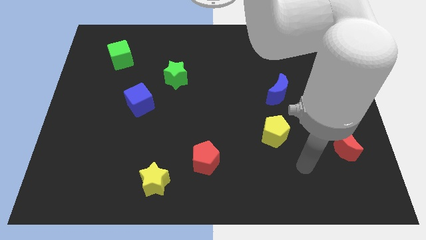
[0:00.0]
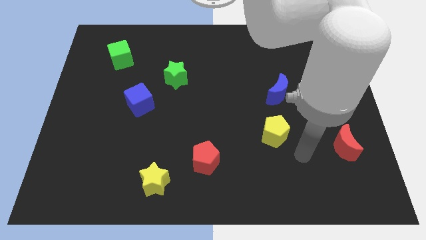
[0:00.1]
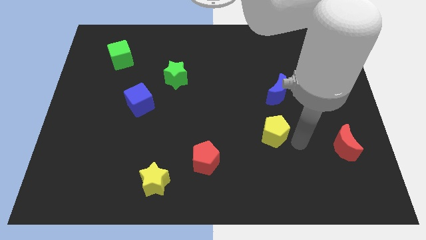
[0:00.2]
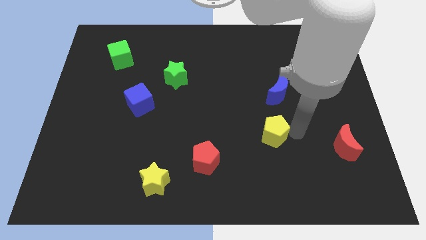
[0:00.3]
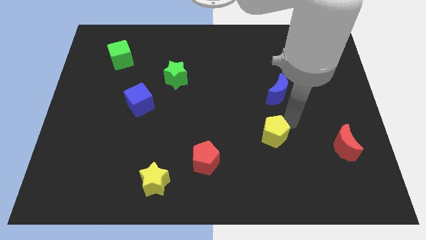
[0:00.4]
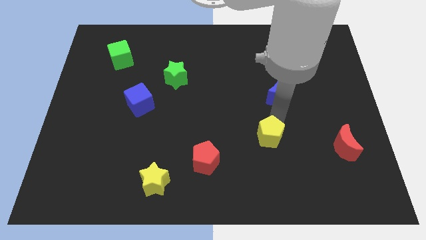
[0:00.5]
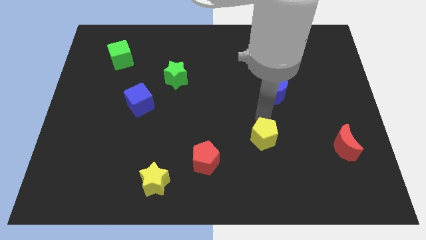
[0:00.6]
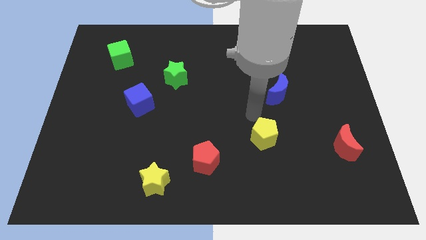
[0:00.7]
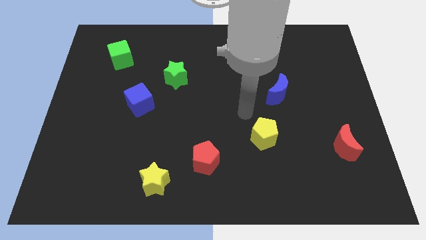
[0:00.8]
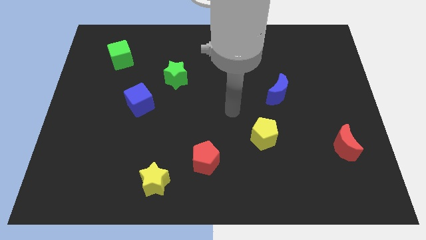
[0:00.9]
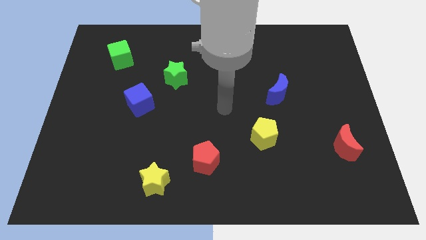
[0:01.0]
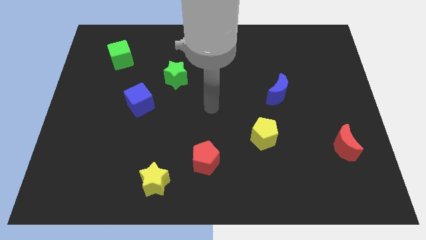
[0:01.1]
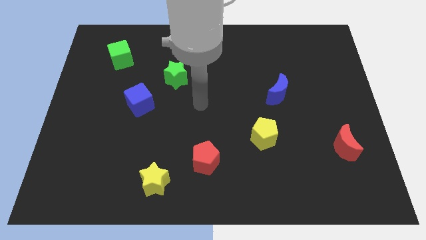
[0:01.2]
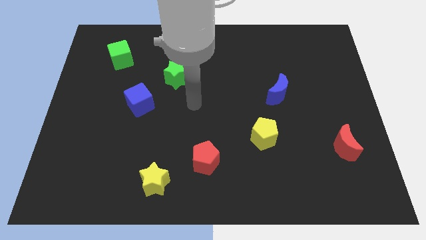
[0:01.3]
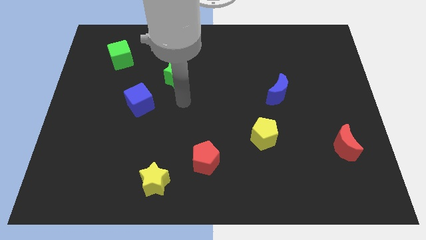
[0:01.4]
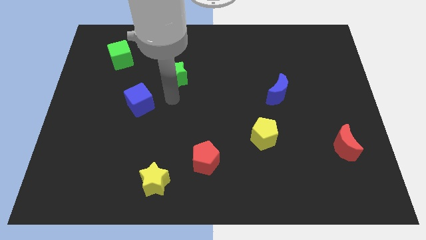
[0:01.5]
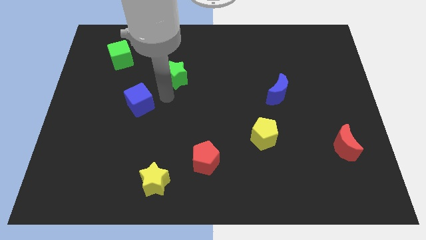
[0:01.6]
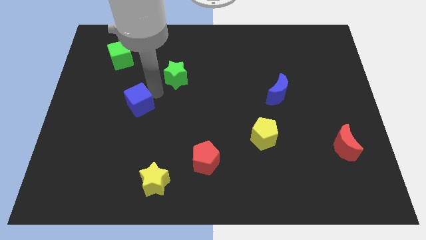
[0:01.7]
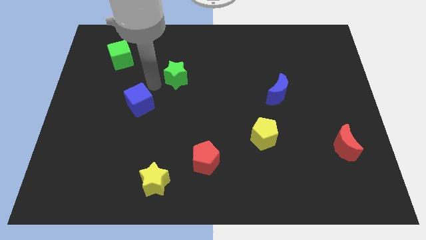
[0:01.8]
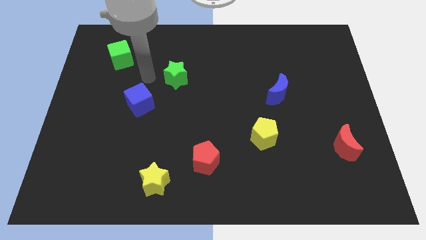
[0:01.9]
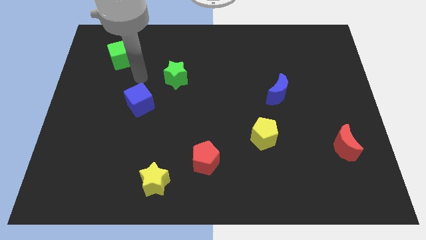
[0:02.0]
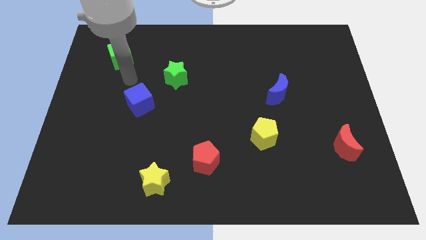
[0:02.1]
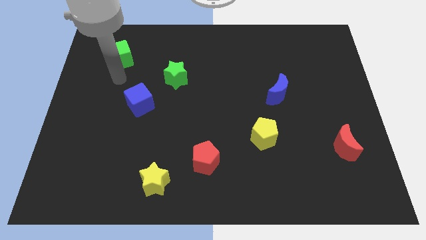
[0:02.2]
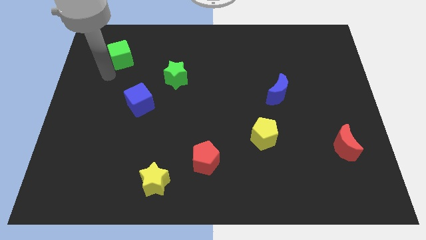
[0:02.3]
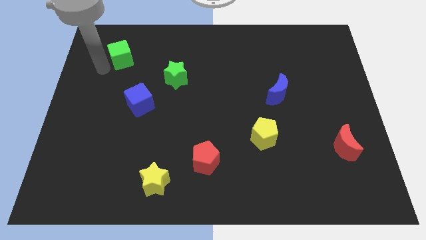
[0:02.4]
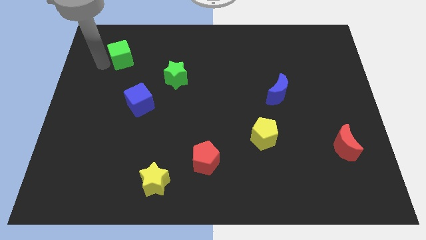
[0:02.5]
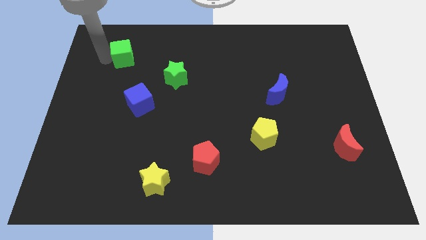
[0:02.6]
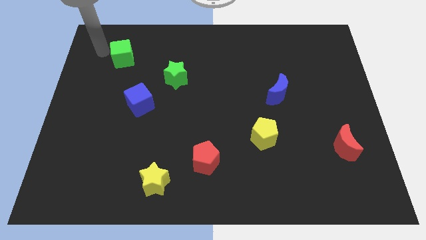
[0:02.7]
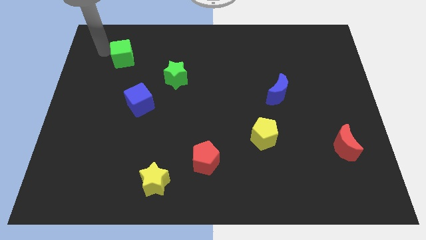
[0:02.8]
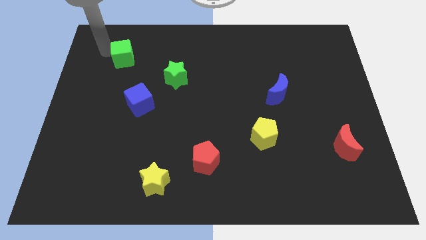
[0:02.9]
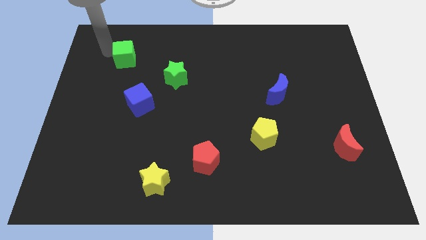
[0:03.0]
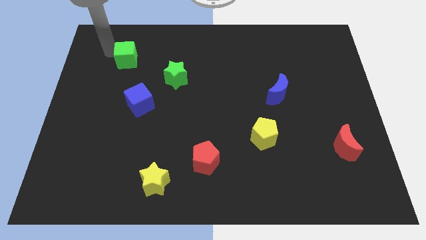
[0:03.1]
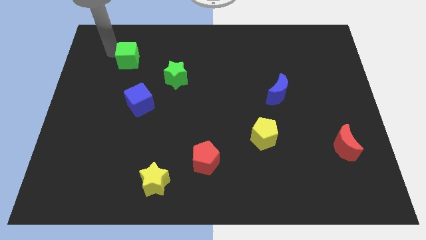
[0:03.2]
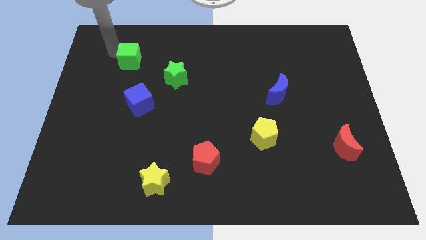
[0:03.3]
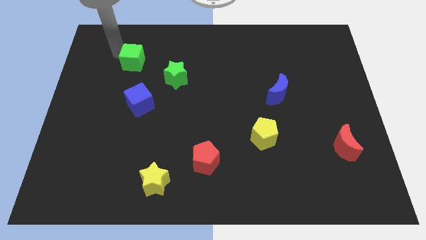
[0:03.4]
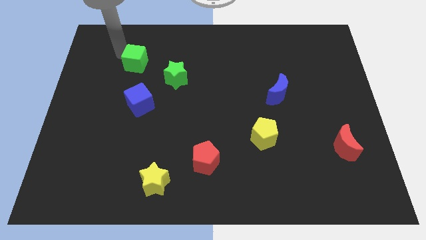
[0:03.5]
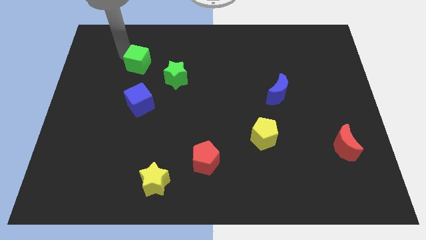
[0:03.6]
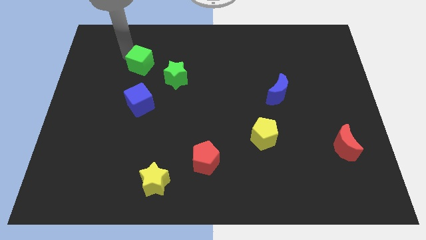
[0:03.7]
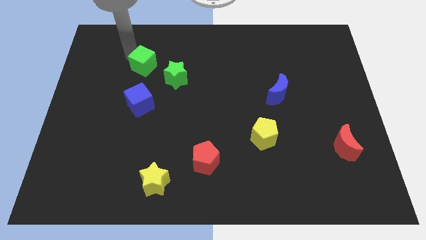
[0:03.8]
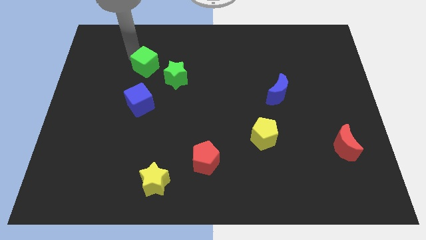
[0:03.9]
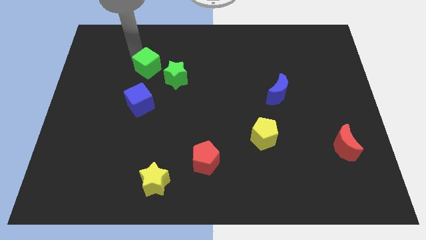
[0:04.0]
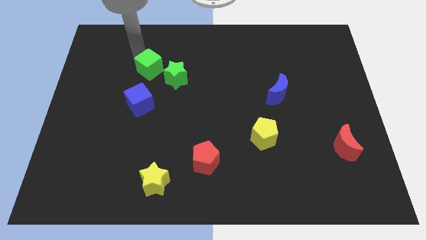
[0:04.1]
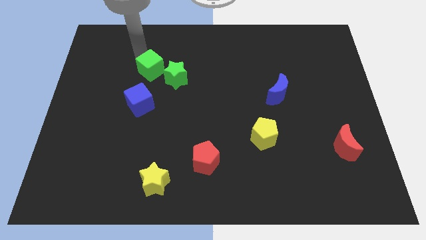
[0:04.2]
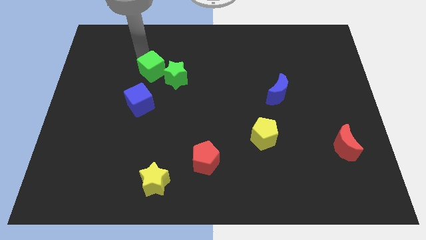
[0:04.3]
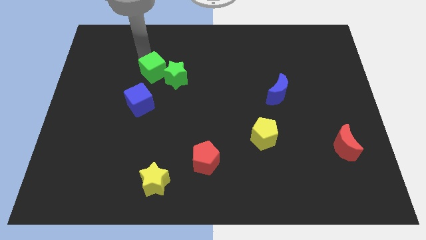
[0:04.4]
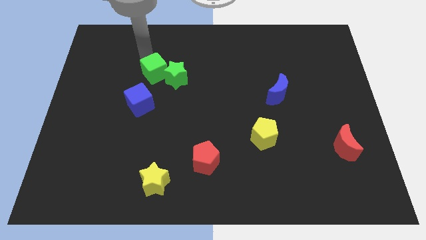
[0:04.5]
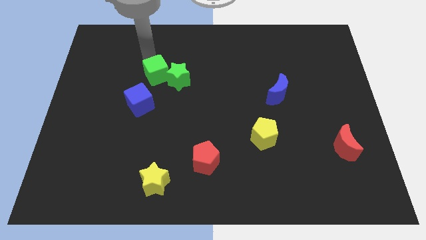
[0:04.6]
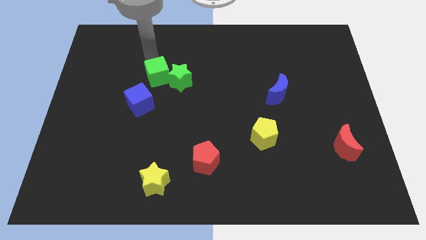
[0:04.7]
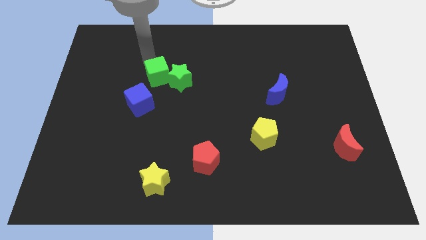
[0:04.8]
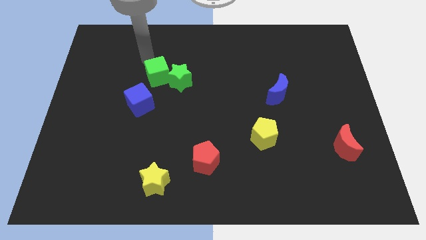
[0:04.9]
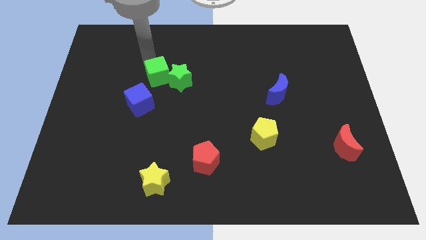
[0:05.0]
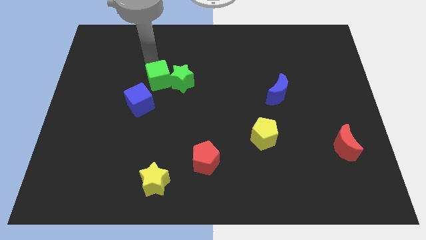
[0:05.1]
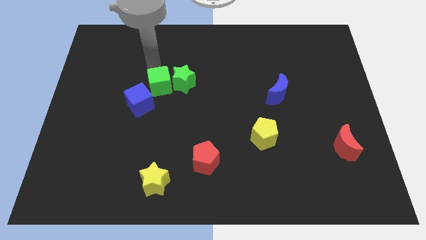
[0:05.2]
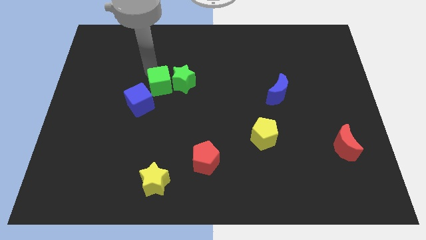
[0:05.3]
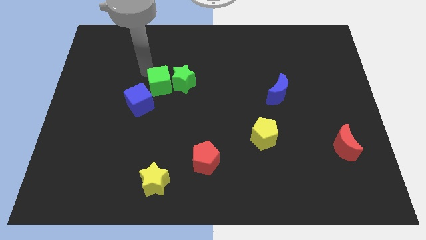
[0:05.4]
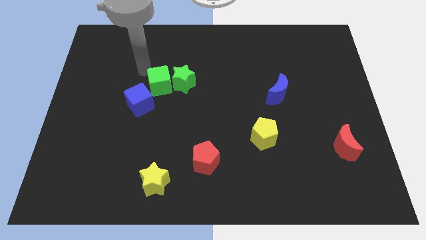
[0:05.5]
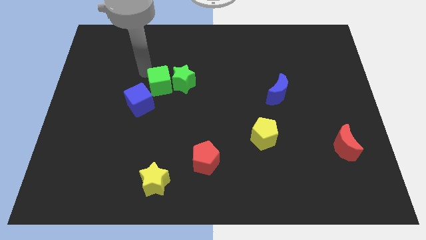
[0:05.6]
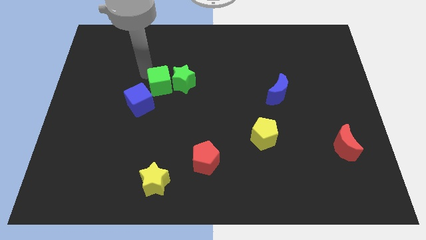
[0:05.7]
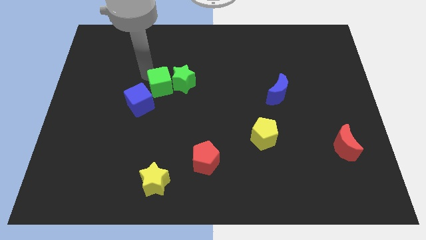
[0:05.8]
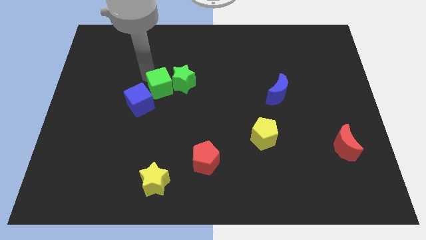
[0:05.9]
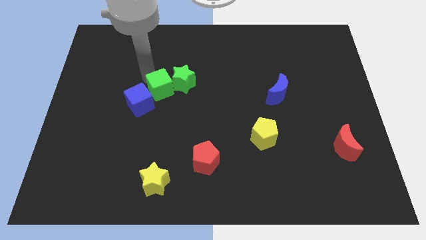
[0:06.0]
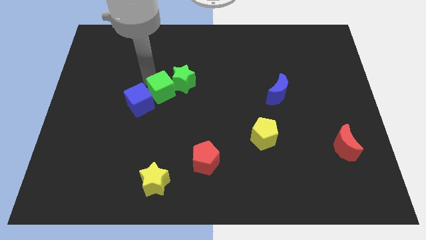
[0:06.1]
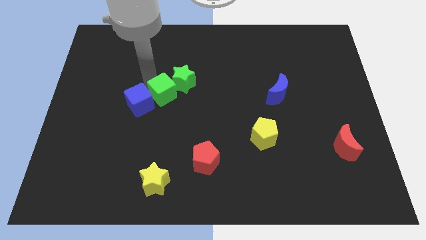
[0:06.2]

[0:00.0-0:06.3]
put the green cube to the middle of the board
